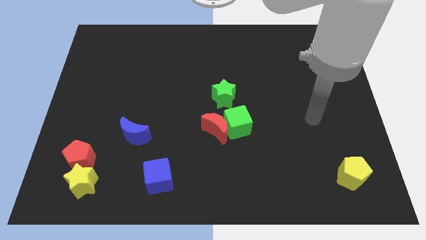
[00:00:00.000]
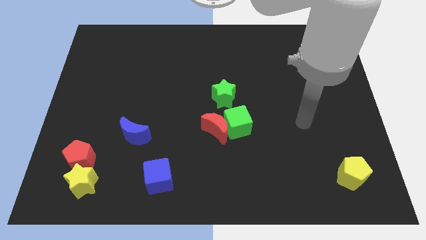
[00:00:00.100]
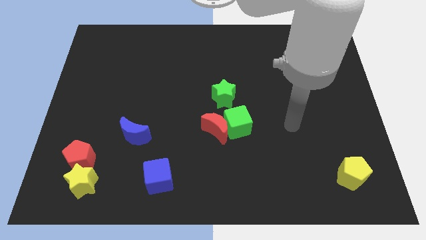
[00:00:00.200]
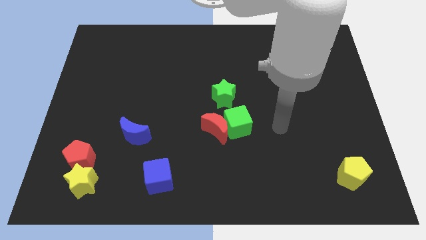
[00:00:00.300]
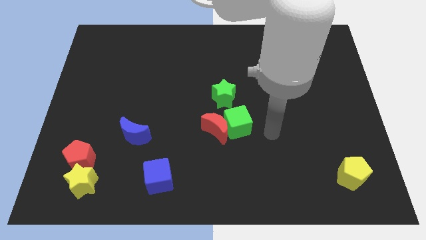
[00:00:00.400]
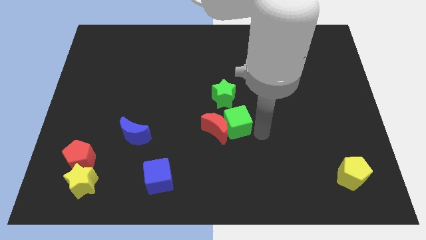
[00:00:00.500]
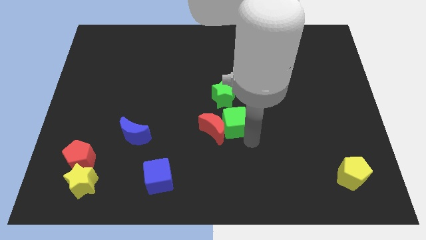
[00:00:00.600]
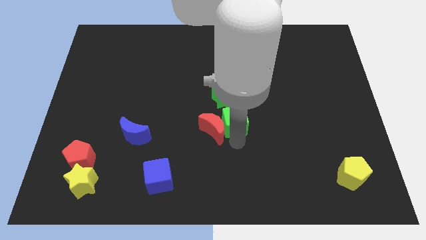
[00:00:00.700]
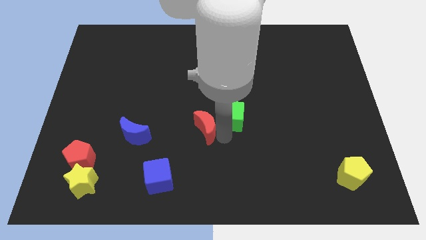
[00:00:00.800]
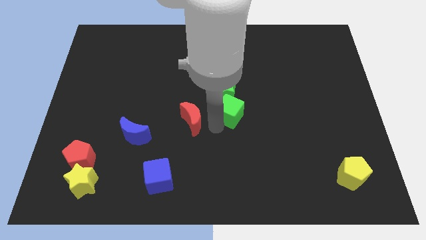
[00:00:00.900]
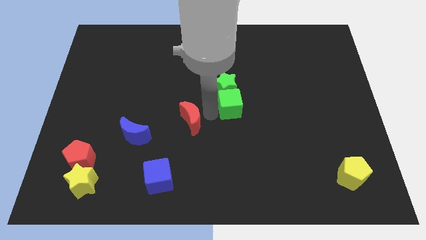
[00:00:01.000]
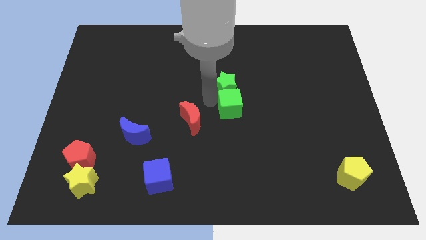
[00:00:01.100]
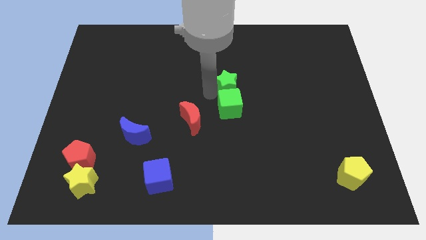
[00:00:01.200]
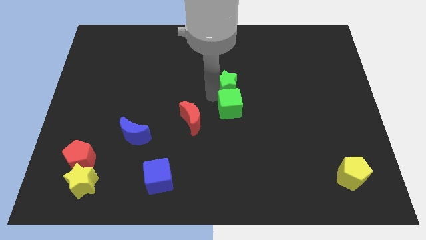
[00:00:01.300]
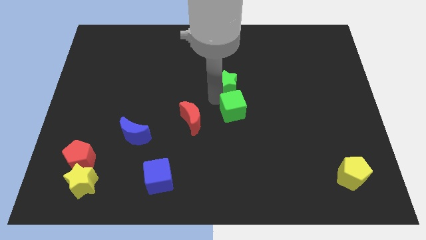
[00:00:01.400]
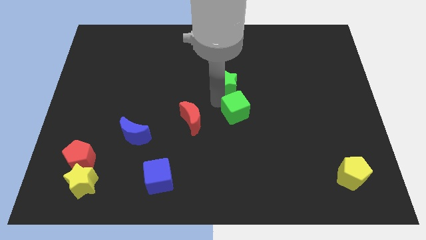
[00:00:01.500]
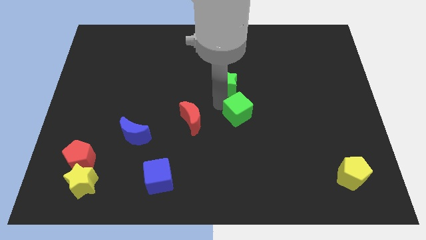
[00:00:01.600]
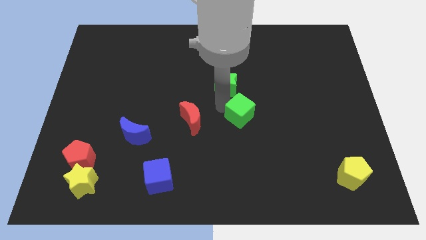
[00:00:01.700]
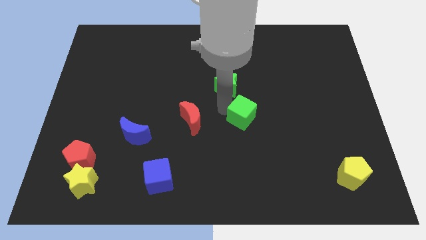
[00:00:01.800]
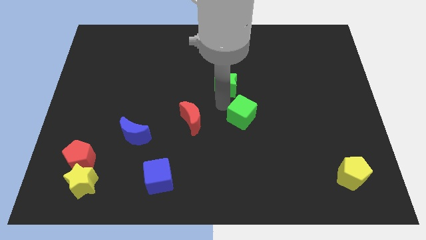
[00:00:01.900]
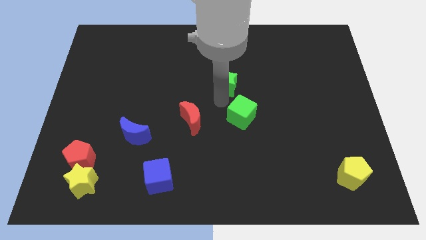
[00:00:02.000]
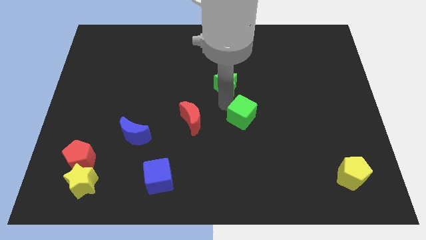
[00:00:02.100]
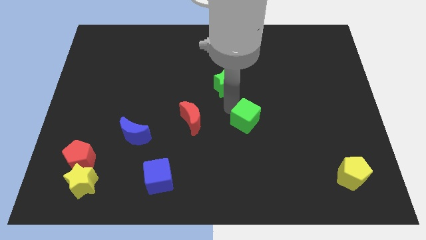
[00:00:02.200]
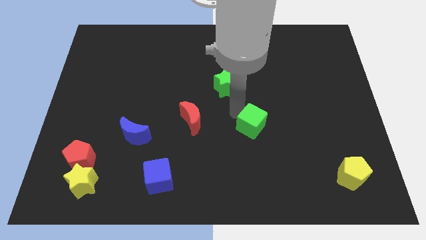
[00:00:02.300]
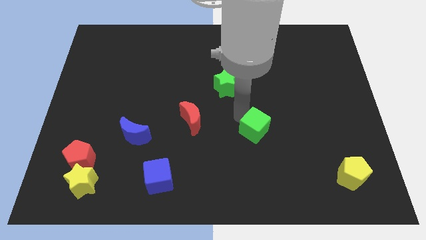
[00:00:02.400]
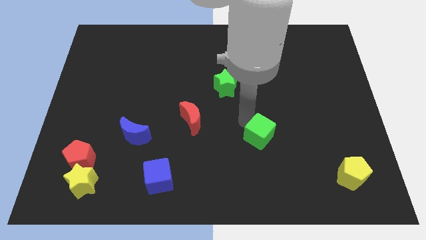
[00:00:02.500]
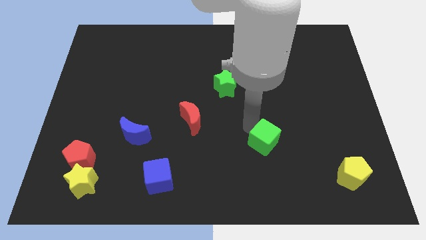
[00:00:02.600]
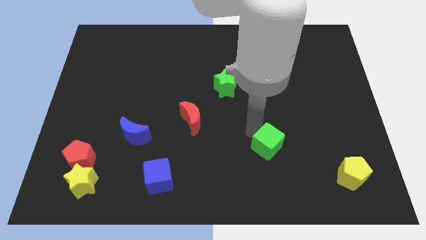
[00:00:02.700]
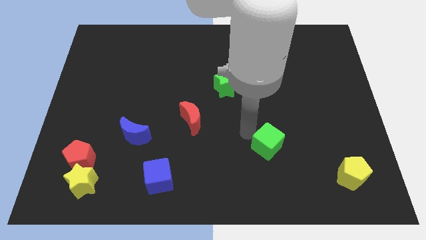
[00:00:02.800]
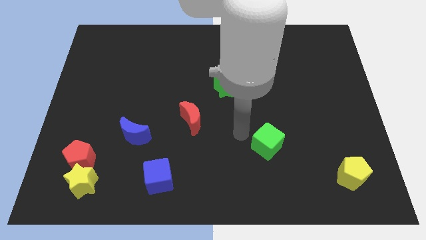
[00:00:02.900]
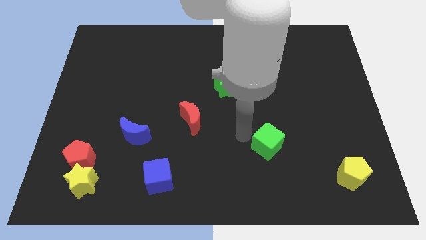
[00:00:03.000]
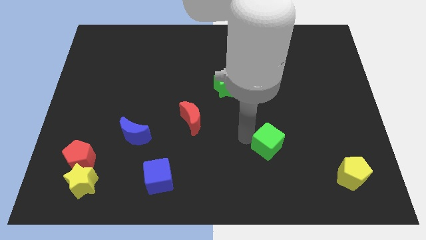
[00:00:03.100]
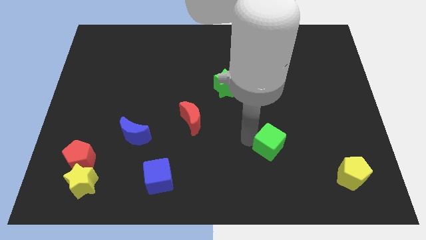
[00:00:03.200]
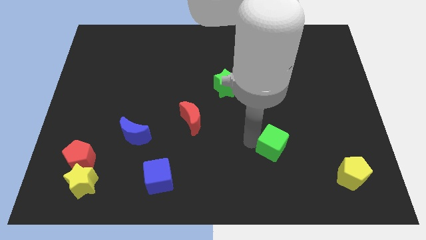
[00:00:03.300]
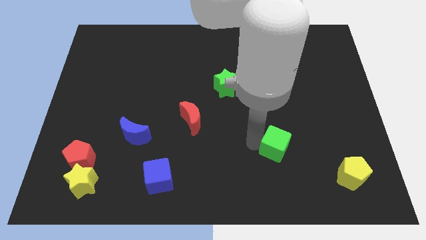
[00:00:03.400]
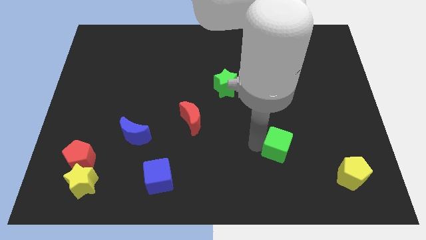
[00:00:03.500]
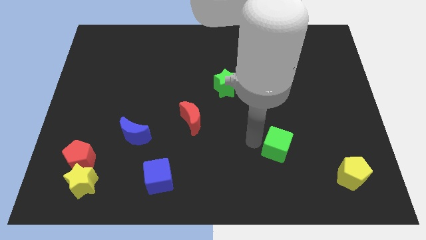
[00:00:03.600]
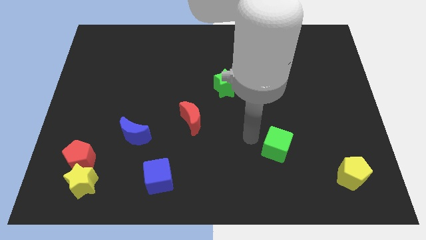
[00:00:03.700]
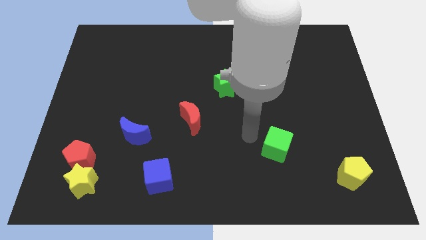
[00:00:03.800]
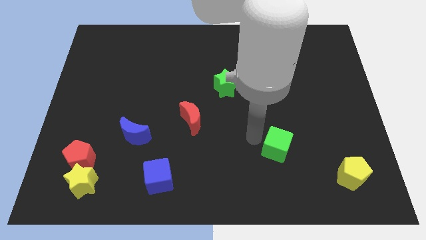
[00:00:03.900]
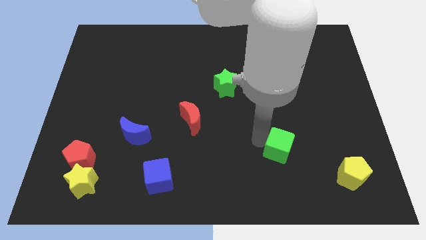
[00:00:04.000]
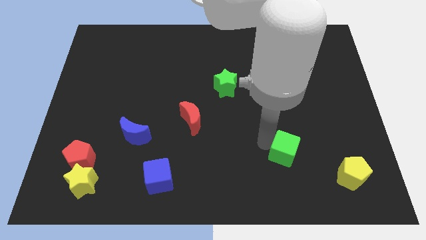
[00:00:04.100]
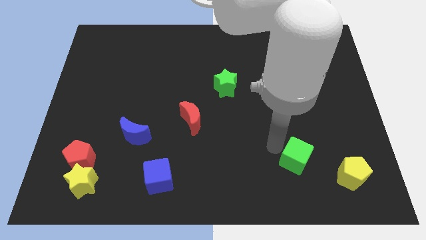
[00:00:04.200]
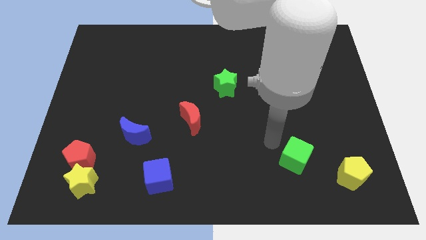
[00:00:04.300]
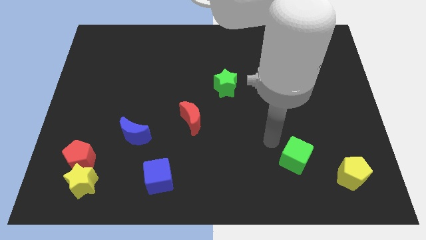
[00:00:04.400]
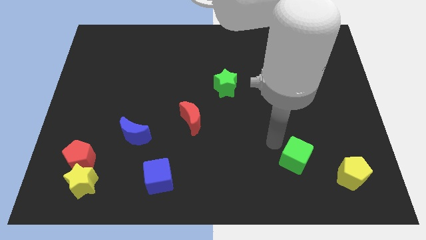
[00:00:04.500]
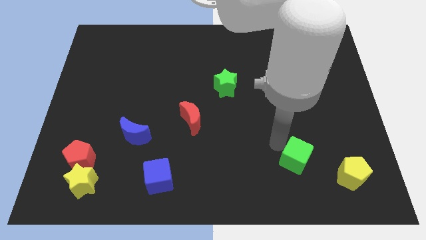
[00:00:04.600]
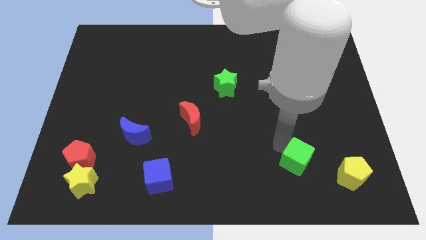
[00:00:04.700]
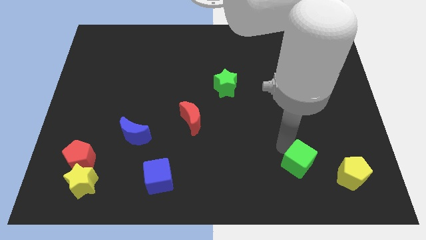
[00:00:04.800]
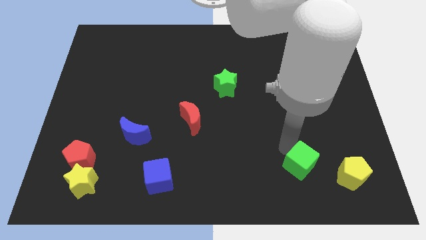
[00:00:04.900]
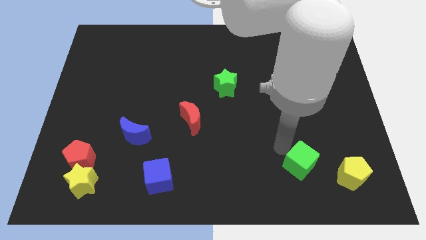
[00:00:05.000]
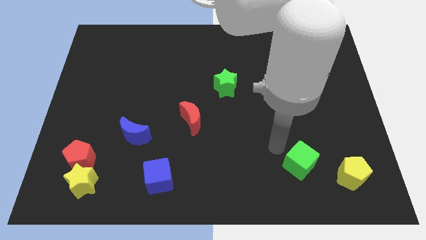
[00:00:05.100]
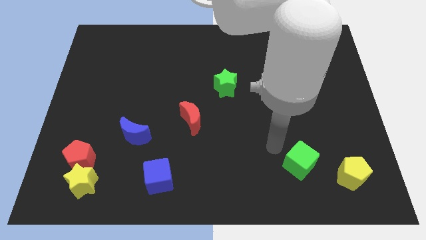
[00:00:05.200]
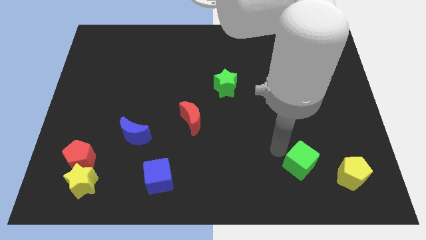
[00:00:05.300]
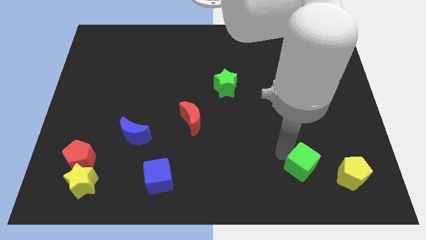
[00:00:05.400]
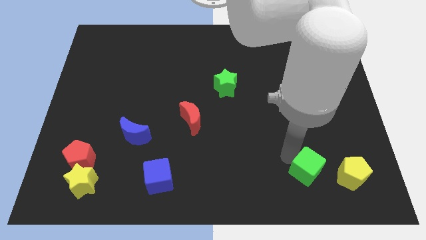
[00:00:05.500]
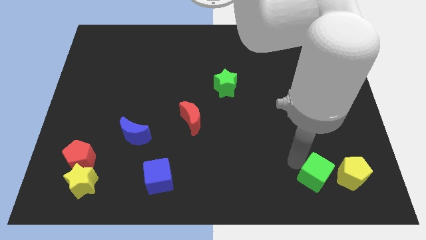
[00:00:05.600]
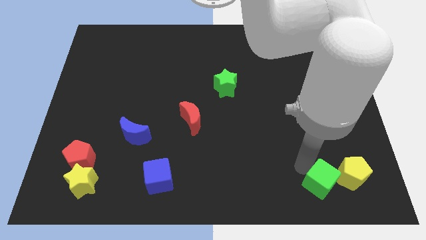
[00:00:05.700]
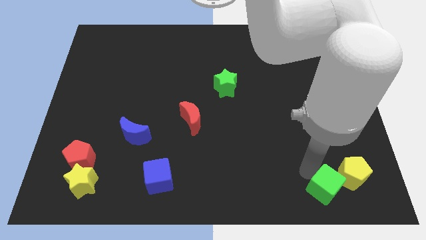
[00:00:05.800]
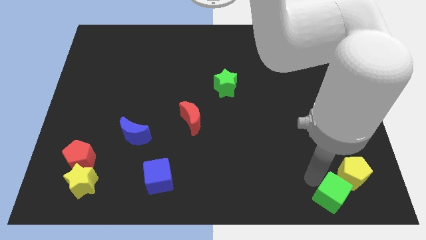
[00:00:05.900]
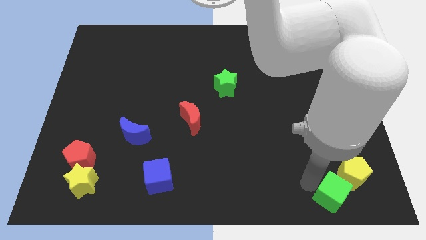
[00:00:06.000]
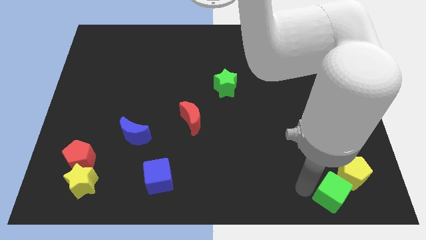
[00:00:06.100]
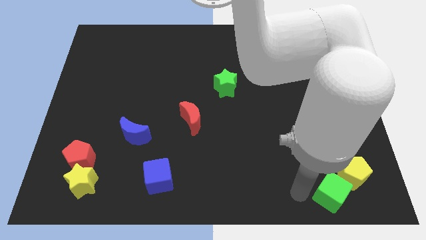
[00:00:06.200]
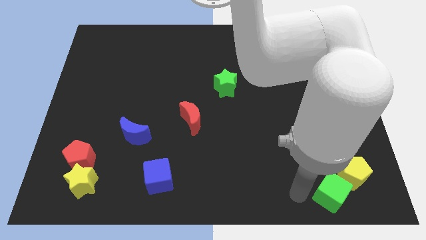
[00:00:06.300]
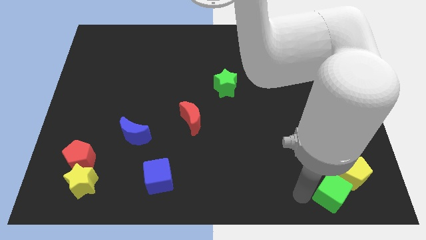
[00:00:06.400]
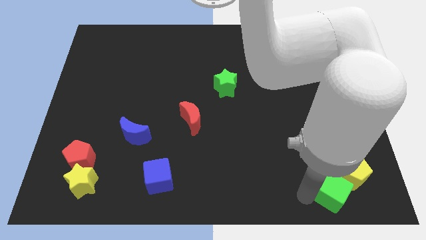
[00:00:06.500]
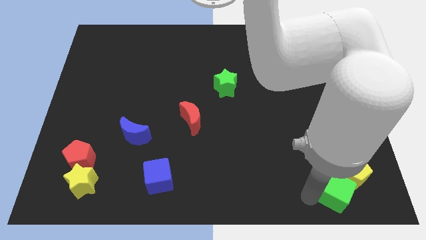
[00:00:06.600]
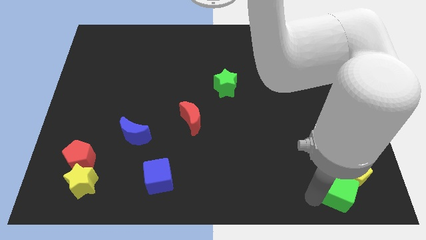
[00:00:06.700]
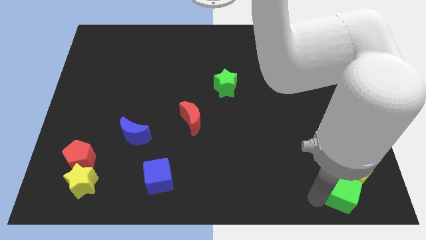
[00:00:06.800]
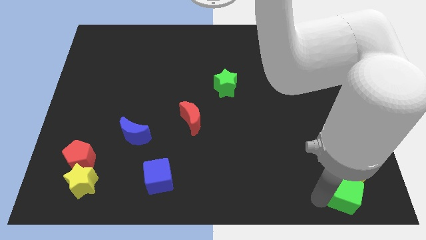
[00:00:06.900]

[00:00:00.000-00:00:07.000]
move the green cube to the bottom right of the board

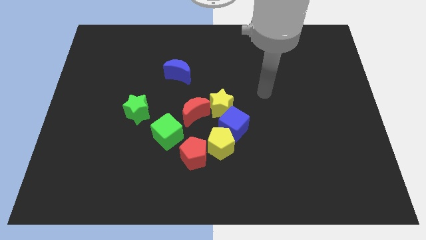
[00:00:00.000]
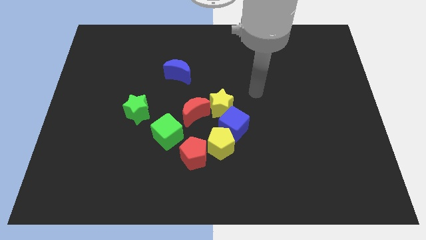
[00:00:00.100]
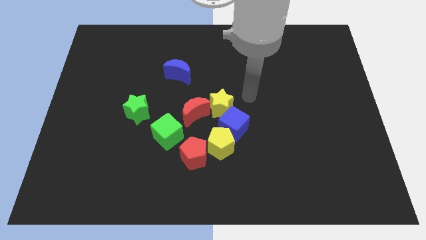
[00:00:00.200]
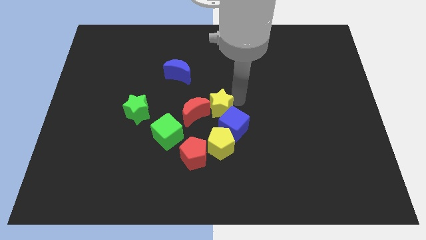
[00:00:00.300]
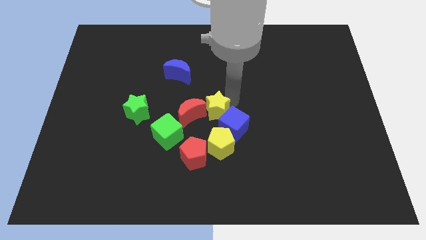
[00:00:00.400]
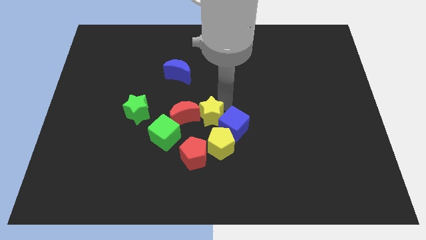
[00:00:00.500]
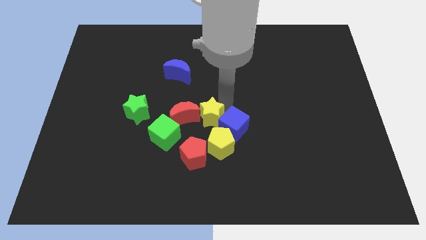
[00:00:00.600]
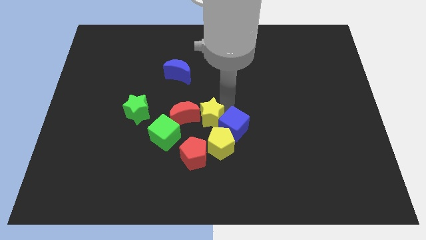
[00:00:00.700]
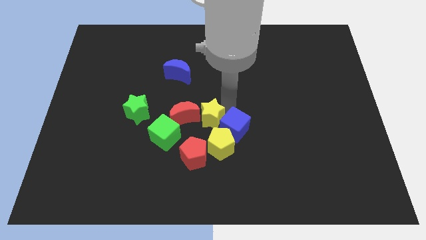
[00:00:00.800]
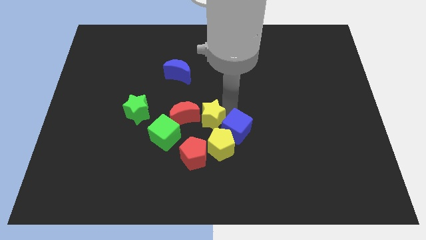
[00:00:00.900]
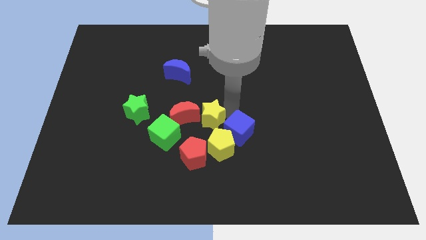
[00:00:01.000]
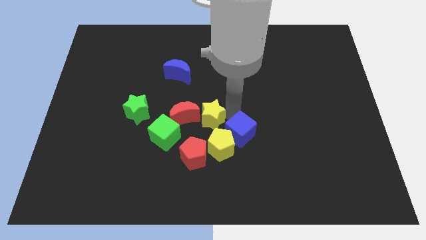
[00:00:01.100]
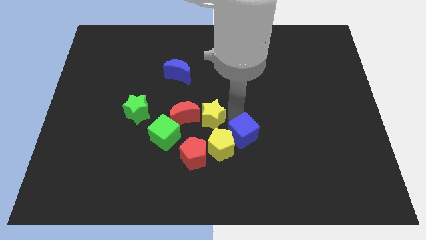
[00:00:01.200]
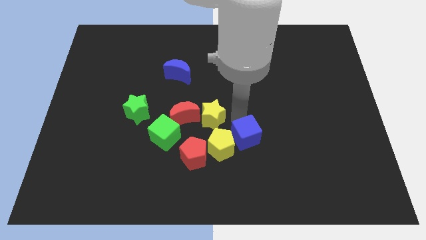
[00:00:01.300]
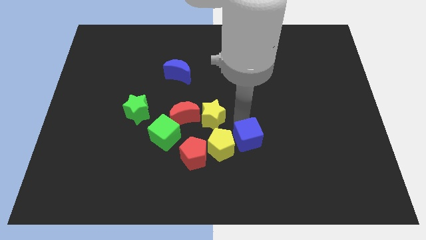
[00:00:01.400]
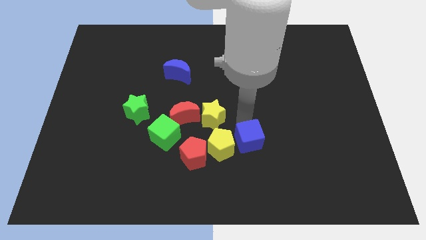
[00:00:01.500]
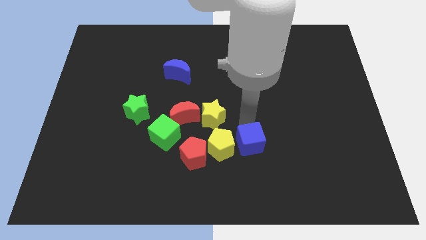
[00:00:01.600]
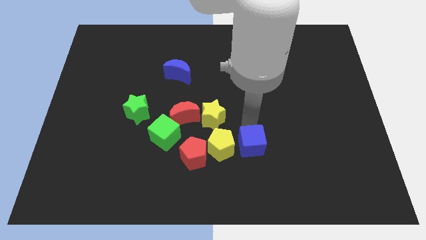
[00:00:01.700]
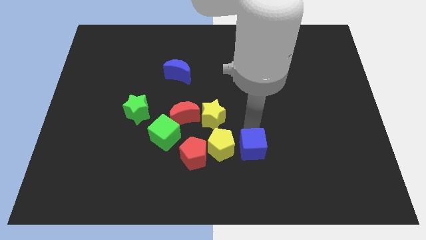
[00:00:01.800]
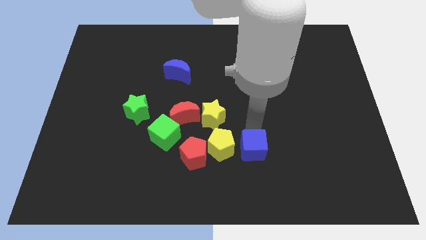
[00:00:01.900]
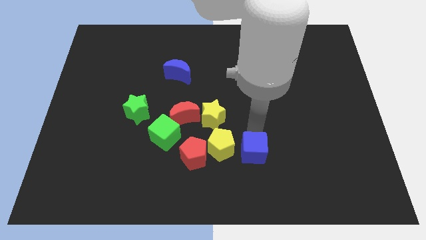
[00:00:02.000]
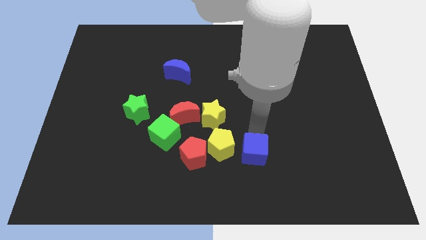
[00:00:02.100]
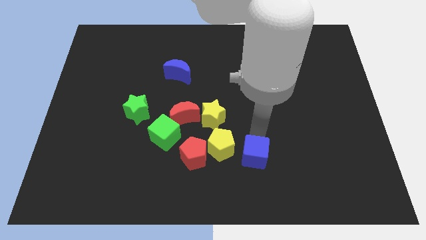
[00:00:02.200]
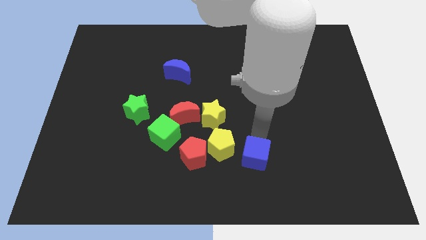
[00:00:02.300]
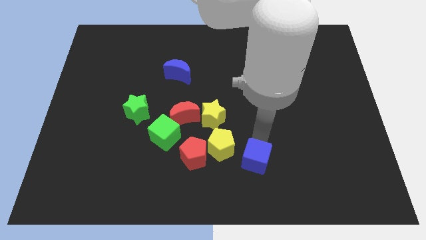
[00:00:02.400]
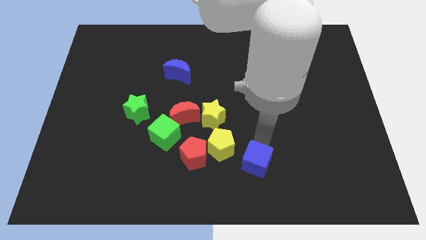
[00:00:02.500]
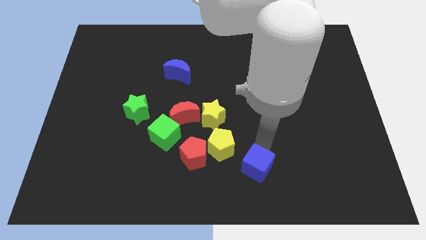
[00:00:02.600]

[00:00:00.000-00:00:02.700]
slide the blue cube to the bottom side
